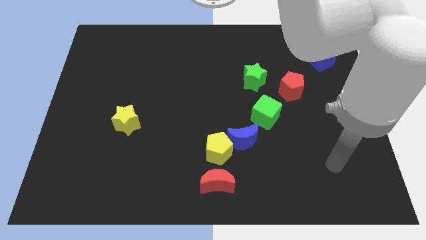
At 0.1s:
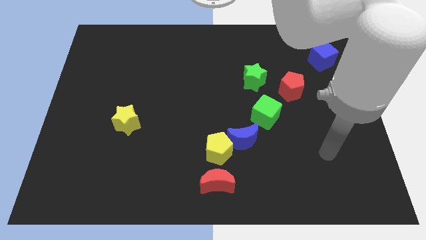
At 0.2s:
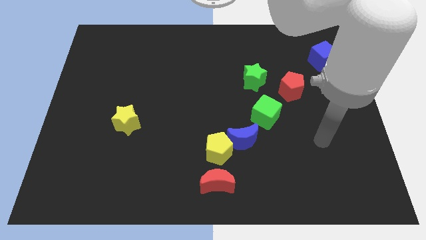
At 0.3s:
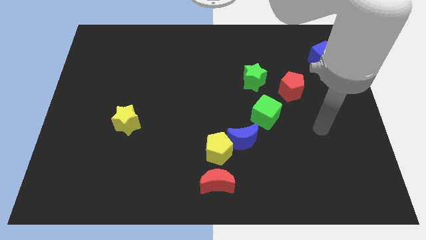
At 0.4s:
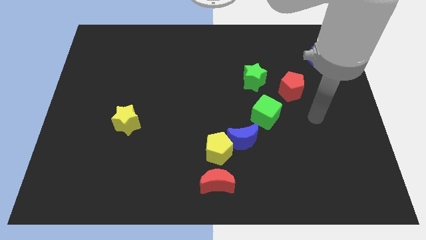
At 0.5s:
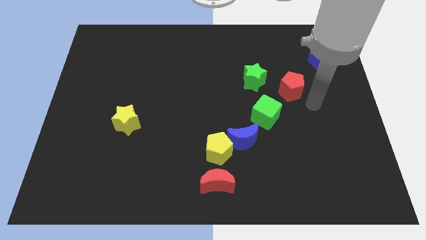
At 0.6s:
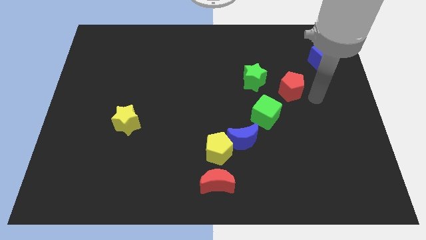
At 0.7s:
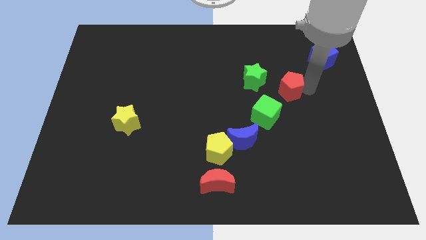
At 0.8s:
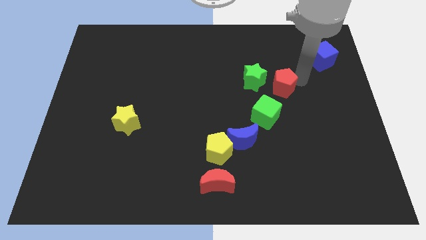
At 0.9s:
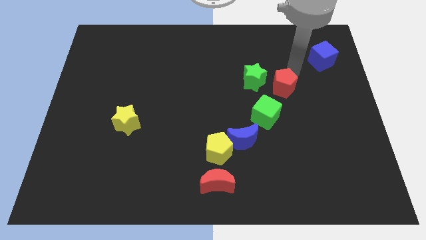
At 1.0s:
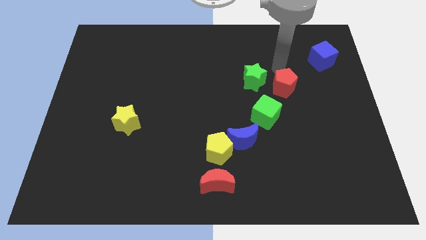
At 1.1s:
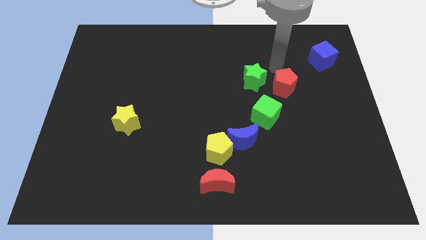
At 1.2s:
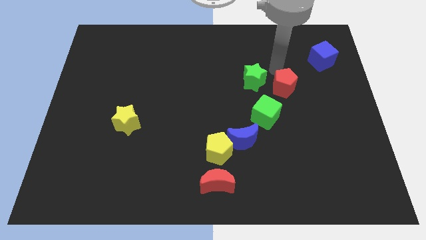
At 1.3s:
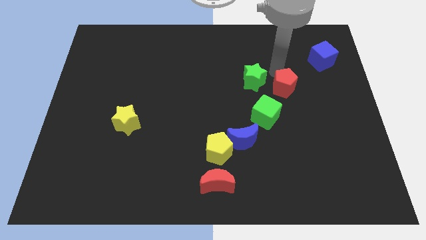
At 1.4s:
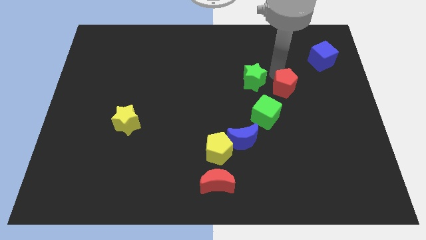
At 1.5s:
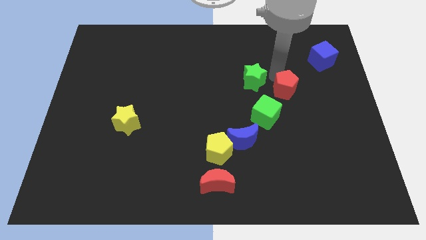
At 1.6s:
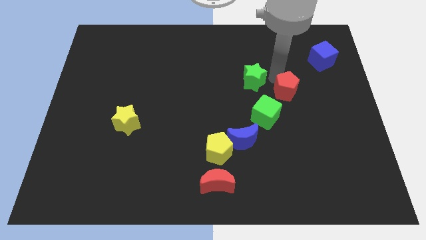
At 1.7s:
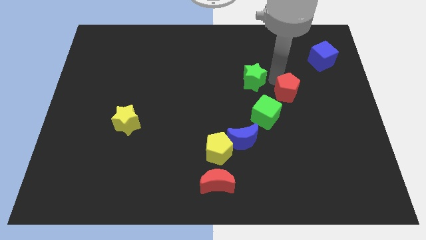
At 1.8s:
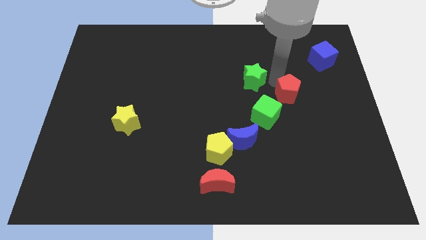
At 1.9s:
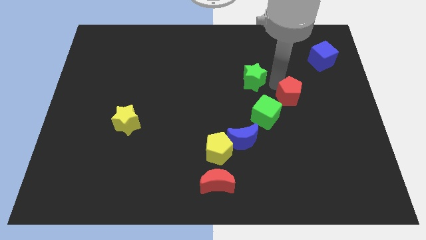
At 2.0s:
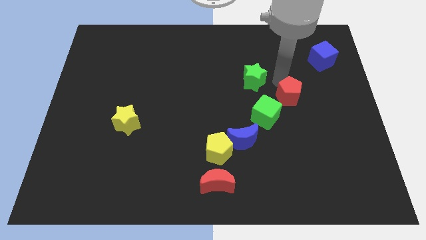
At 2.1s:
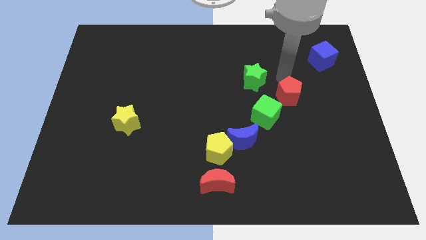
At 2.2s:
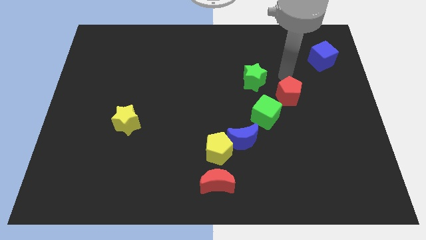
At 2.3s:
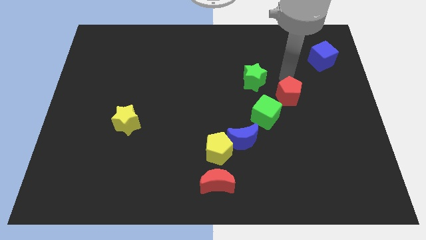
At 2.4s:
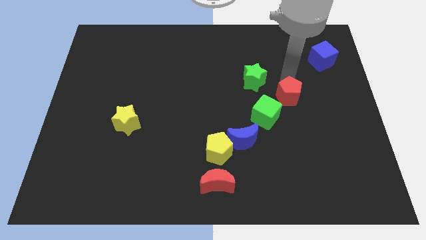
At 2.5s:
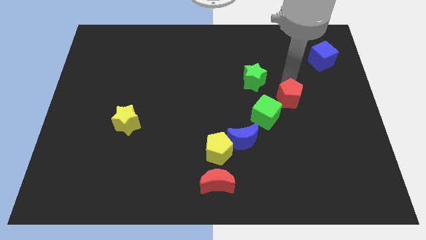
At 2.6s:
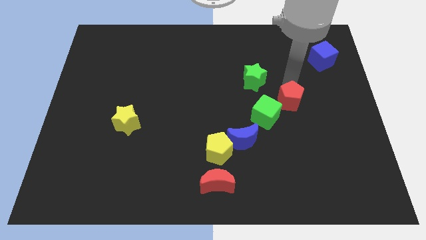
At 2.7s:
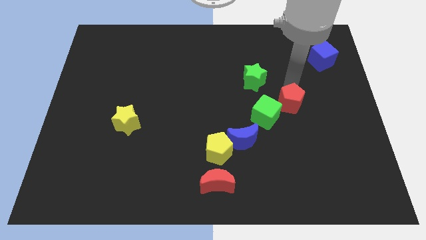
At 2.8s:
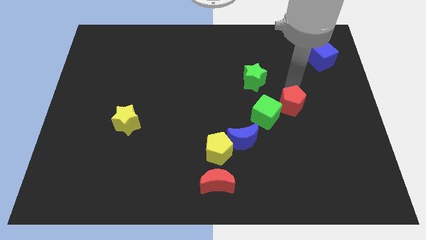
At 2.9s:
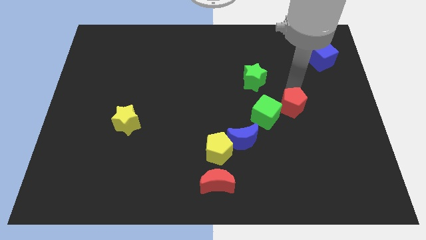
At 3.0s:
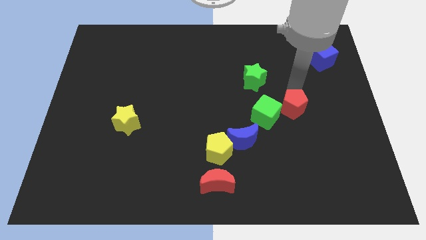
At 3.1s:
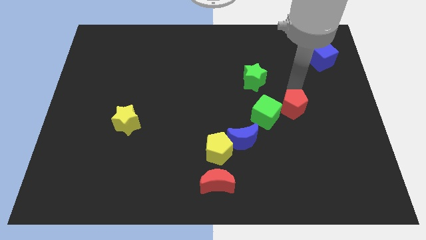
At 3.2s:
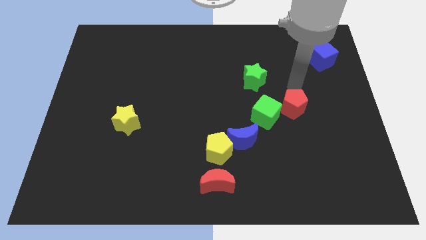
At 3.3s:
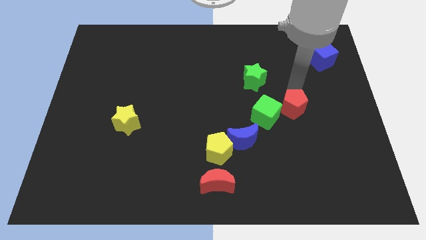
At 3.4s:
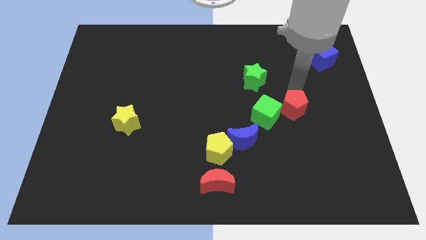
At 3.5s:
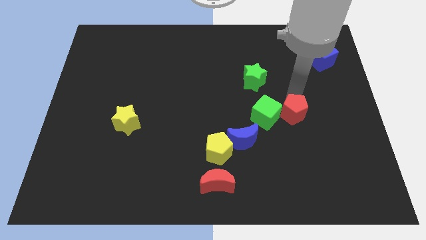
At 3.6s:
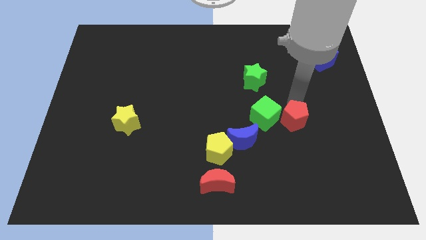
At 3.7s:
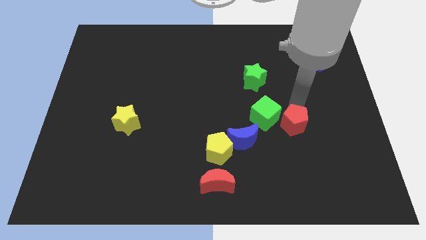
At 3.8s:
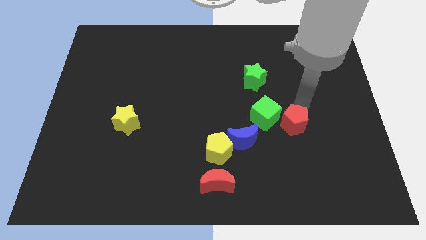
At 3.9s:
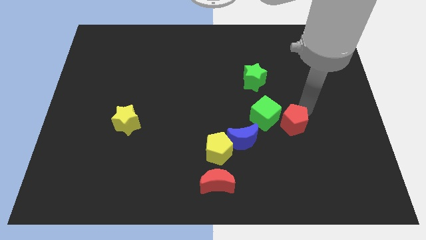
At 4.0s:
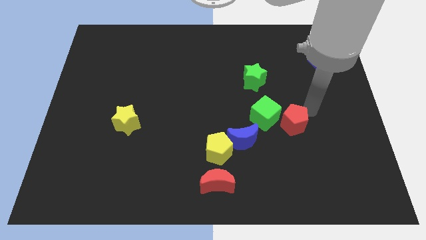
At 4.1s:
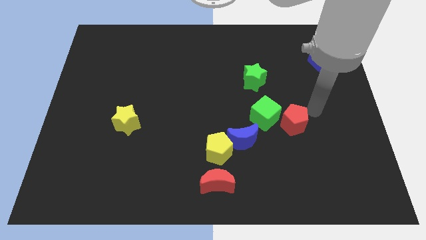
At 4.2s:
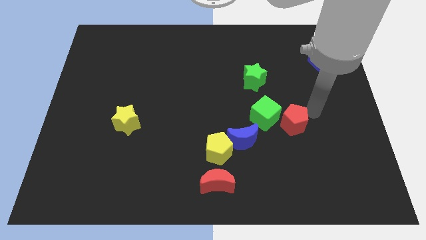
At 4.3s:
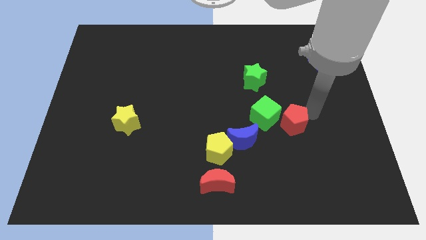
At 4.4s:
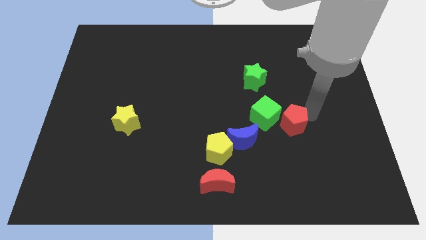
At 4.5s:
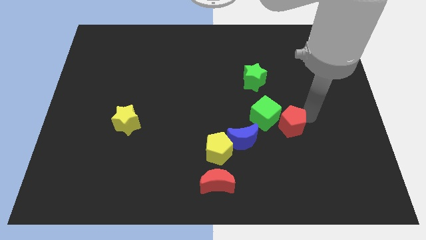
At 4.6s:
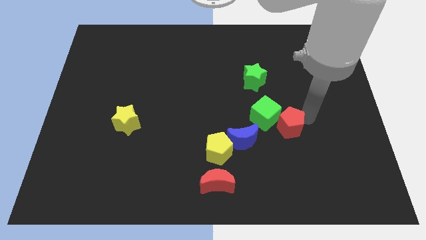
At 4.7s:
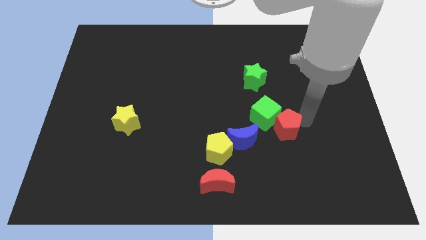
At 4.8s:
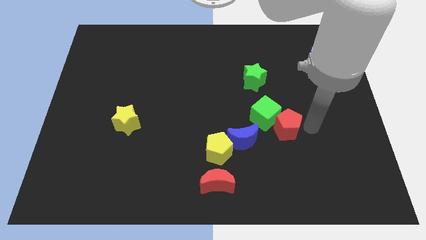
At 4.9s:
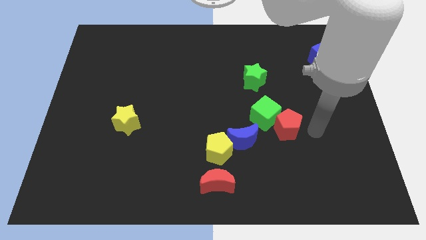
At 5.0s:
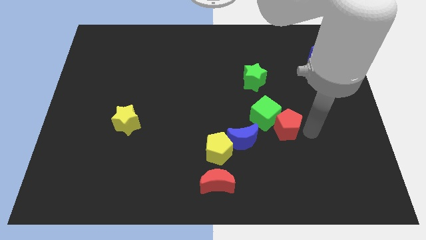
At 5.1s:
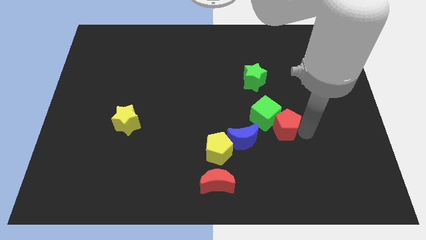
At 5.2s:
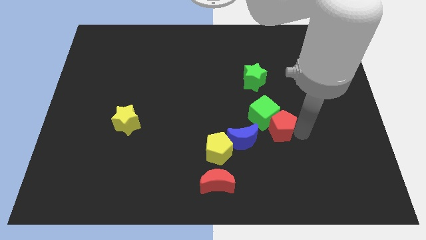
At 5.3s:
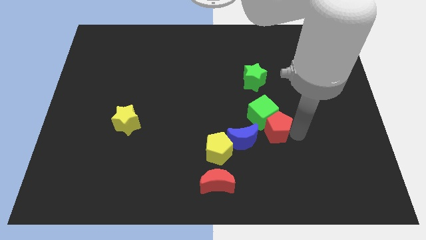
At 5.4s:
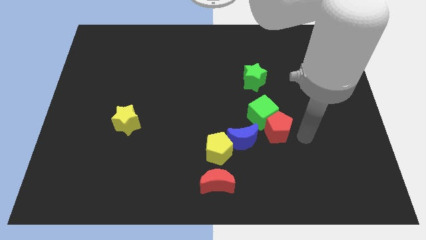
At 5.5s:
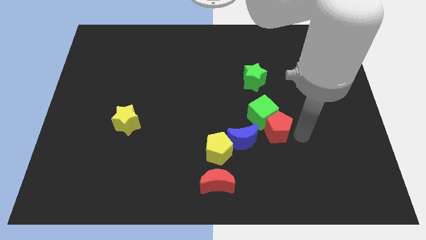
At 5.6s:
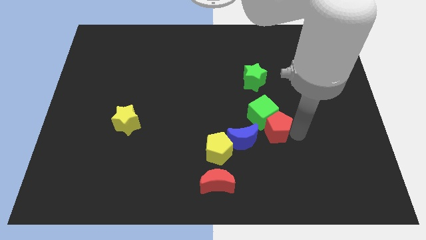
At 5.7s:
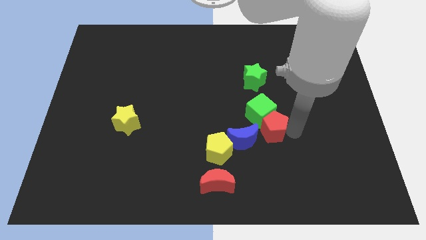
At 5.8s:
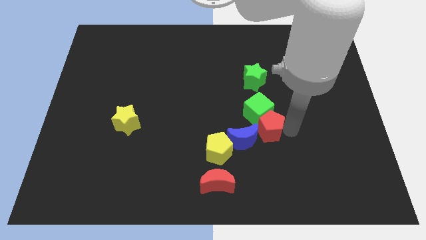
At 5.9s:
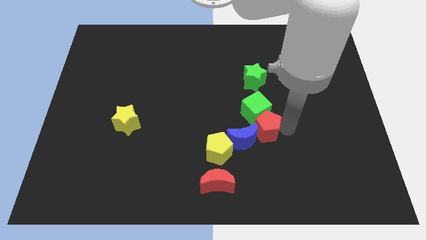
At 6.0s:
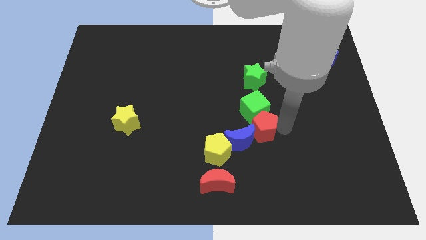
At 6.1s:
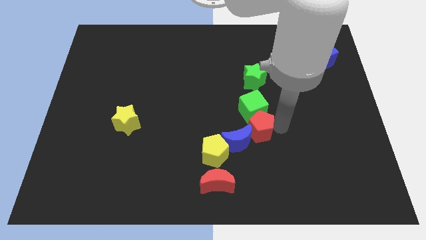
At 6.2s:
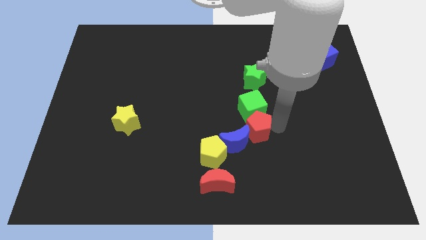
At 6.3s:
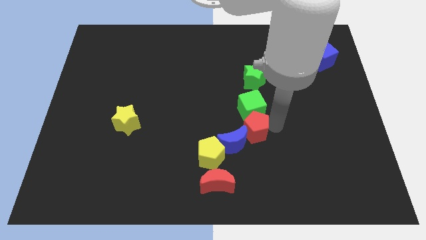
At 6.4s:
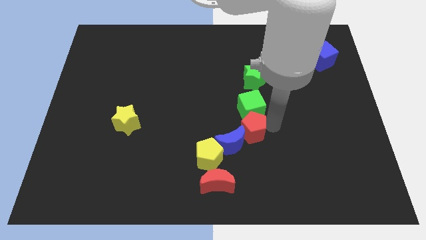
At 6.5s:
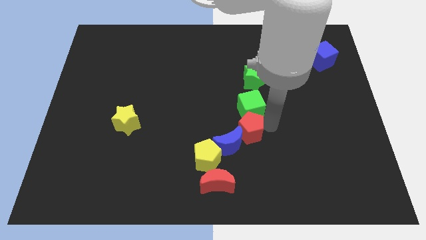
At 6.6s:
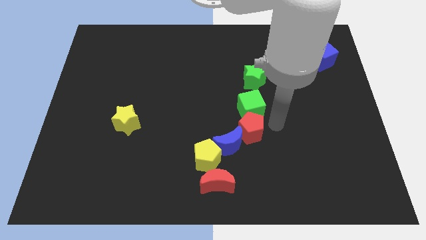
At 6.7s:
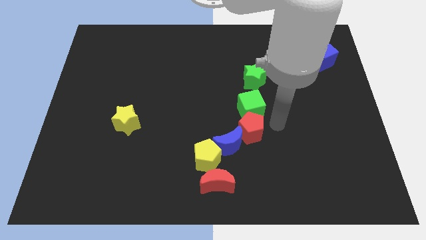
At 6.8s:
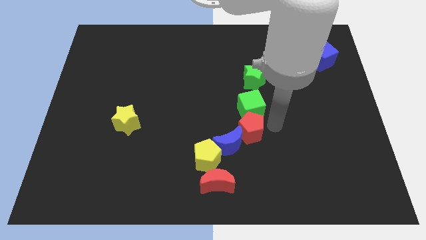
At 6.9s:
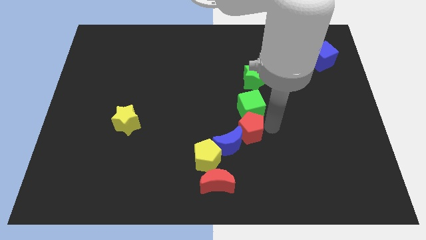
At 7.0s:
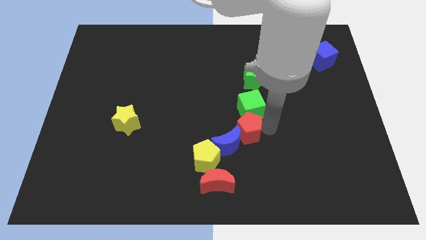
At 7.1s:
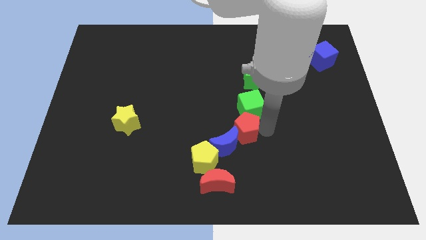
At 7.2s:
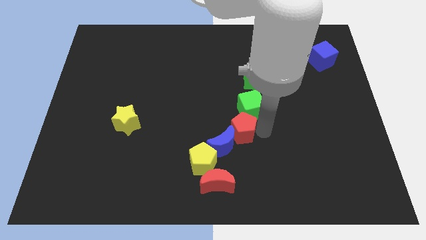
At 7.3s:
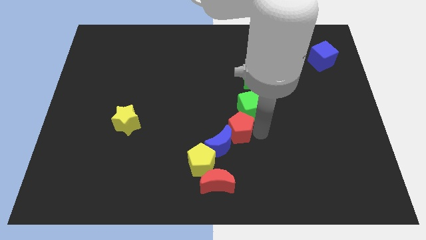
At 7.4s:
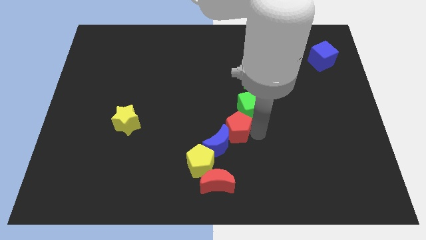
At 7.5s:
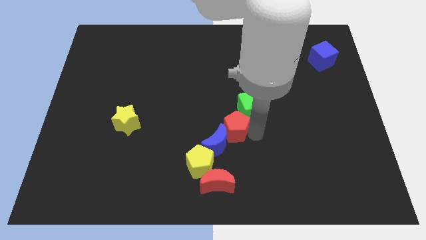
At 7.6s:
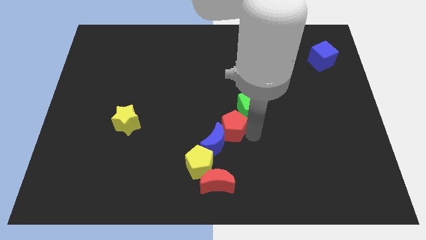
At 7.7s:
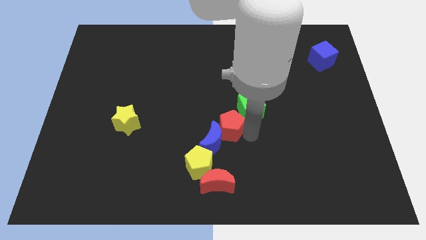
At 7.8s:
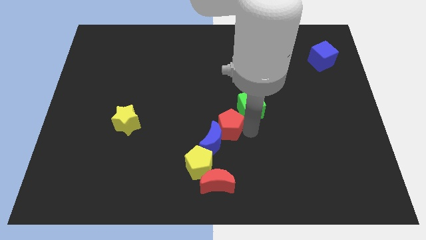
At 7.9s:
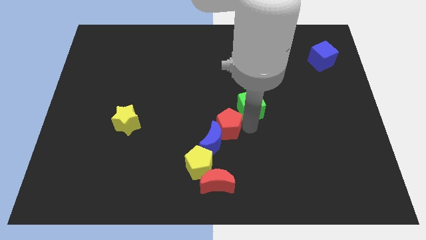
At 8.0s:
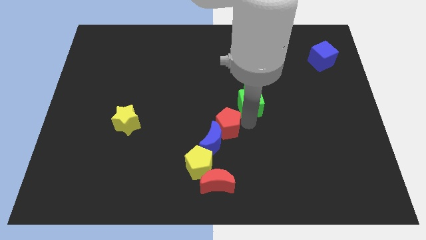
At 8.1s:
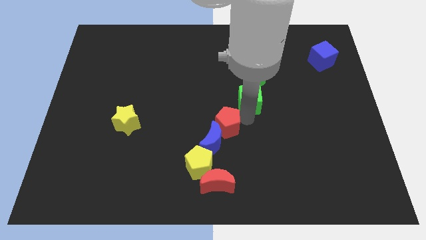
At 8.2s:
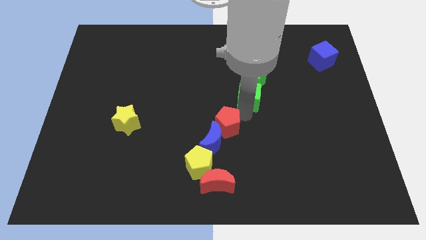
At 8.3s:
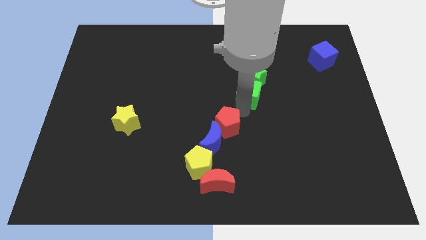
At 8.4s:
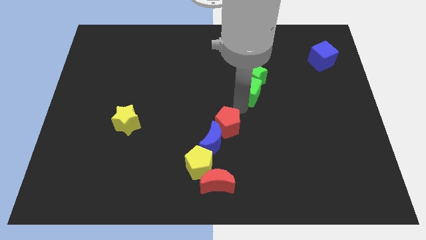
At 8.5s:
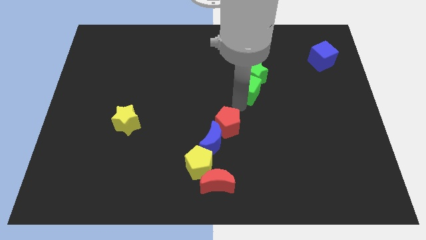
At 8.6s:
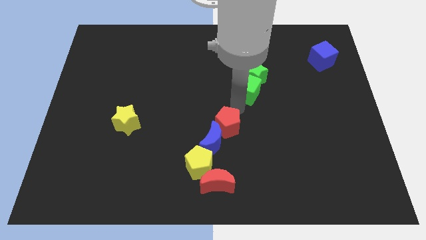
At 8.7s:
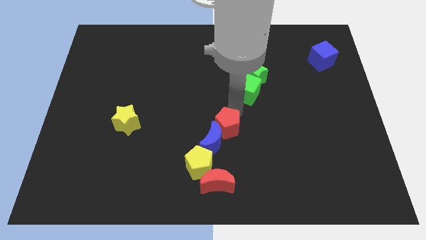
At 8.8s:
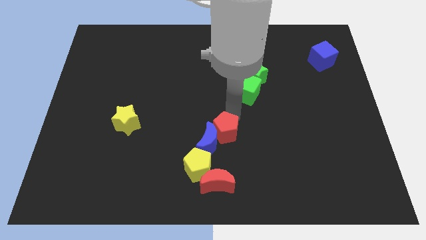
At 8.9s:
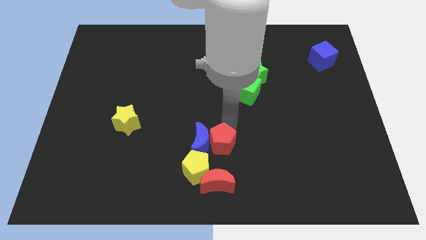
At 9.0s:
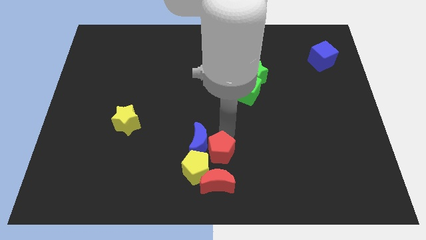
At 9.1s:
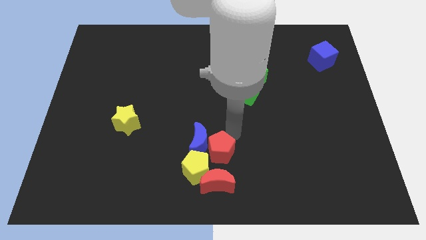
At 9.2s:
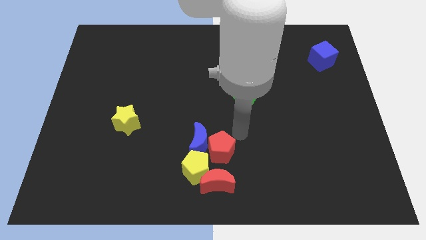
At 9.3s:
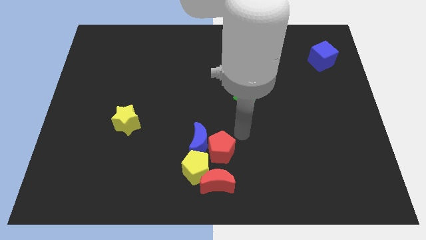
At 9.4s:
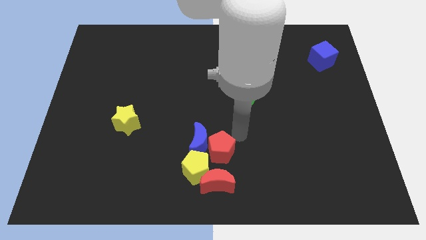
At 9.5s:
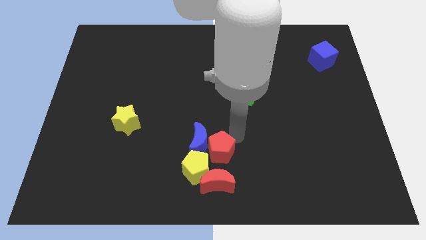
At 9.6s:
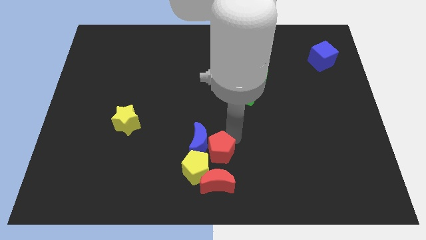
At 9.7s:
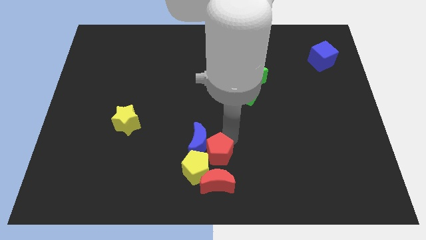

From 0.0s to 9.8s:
move the red pentagon close to the yellow pentagon
